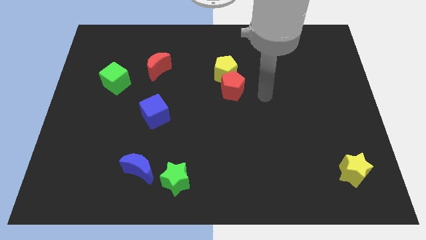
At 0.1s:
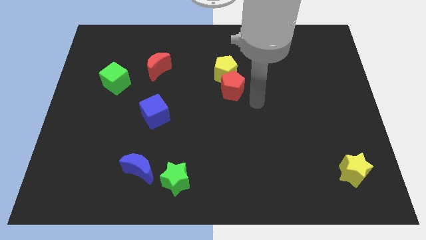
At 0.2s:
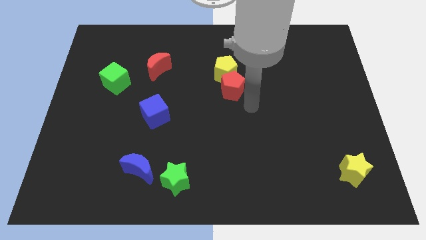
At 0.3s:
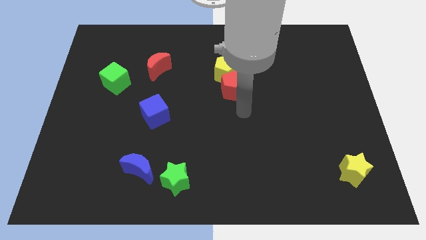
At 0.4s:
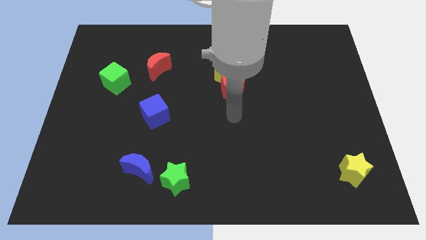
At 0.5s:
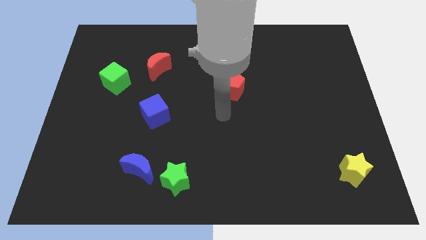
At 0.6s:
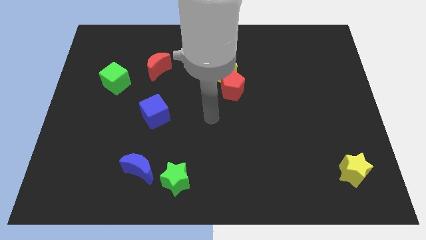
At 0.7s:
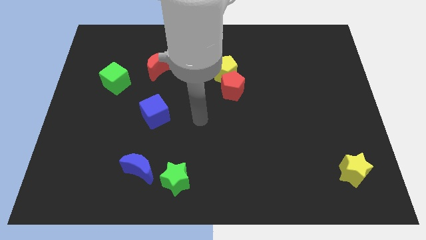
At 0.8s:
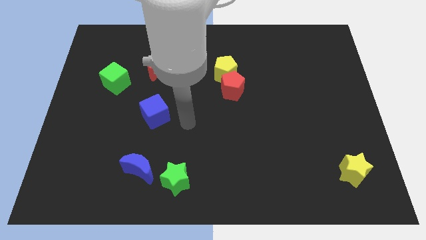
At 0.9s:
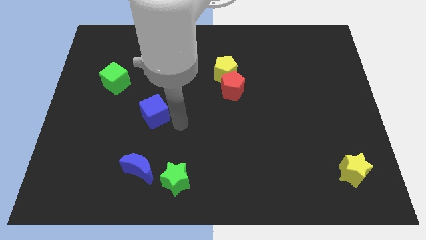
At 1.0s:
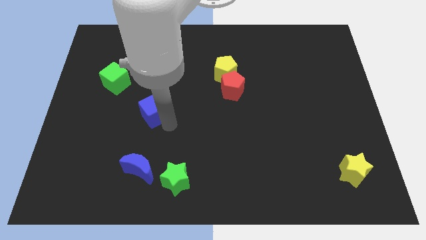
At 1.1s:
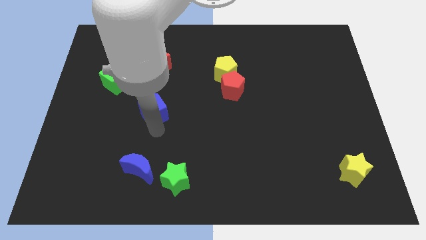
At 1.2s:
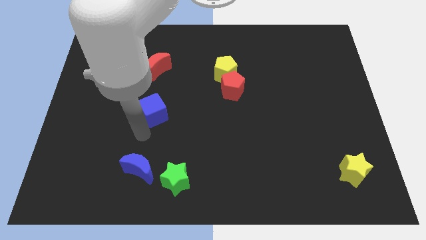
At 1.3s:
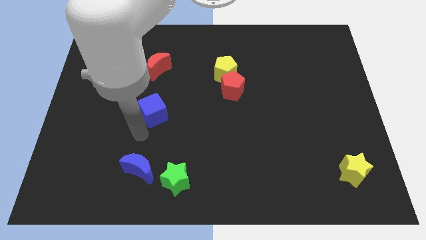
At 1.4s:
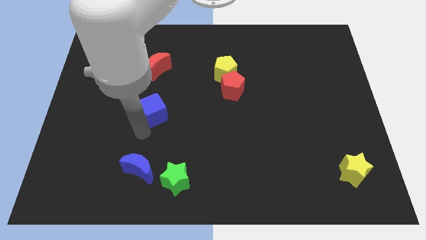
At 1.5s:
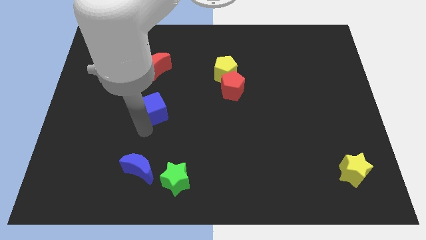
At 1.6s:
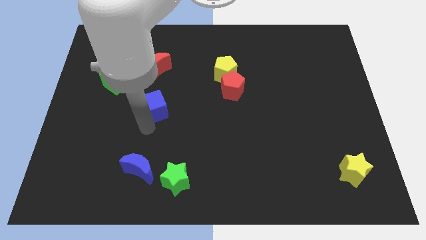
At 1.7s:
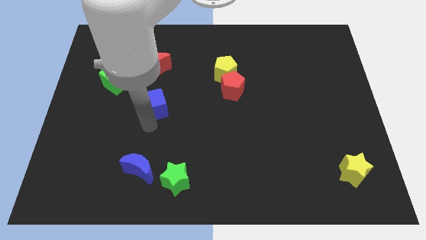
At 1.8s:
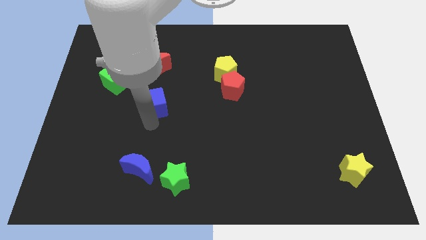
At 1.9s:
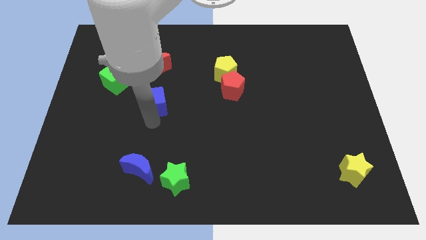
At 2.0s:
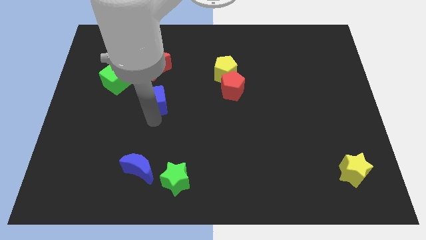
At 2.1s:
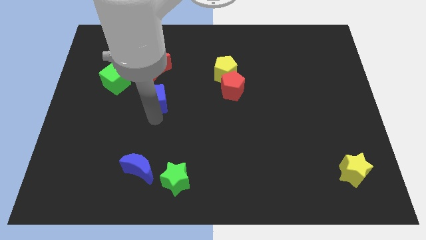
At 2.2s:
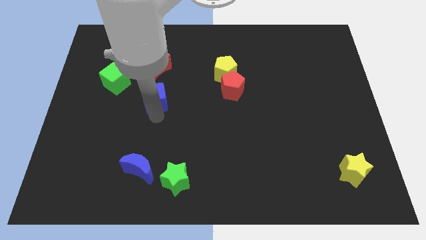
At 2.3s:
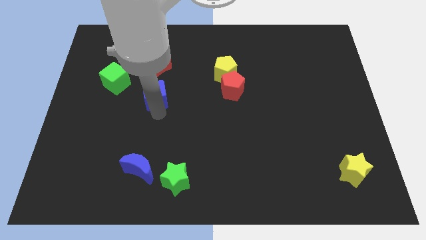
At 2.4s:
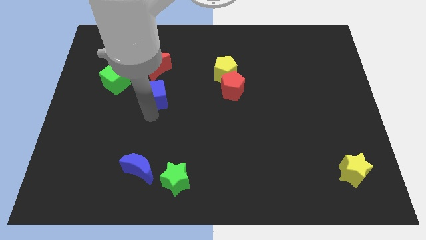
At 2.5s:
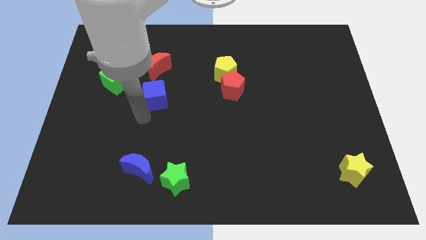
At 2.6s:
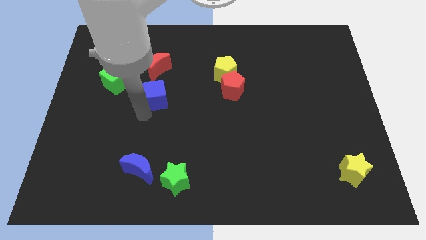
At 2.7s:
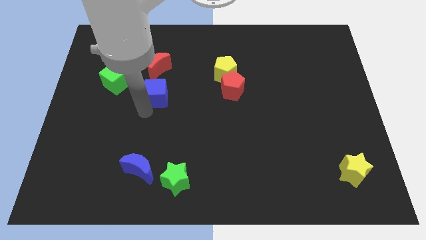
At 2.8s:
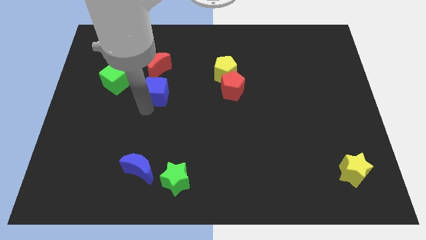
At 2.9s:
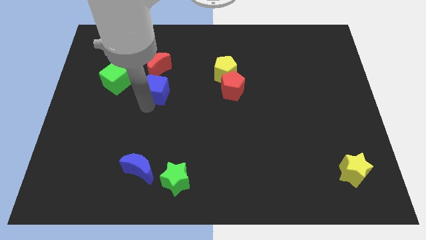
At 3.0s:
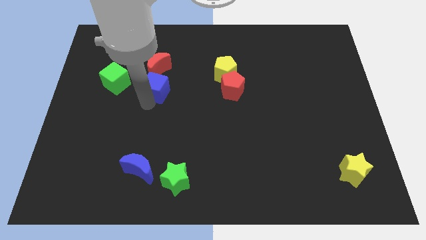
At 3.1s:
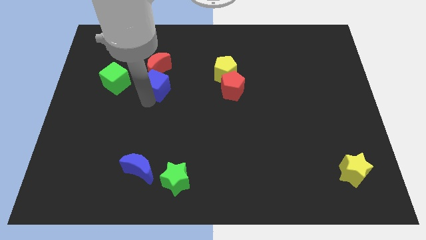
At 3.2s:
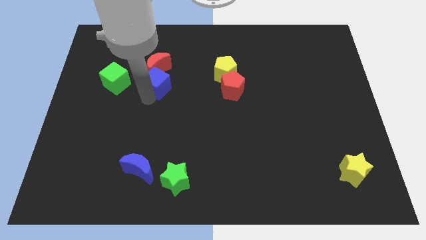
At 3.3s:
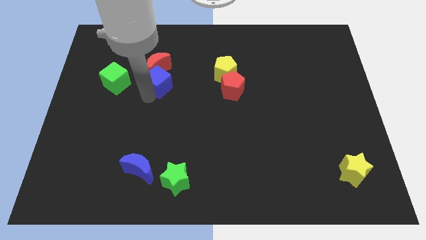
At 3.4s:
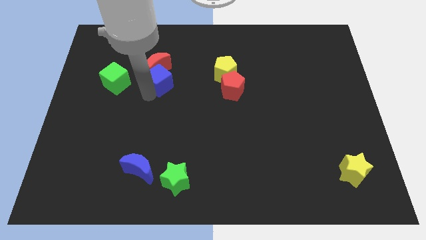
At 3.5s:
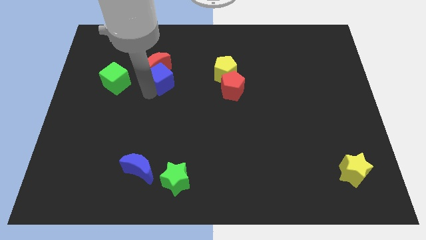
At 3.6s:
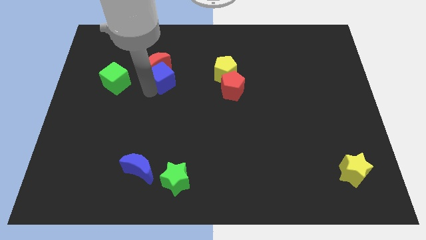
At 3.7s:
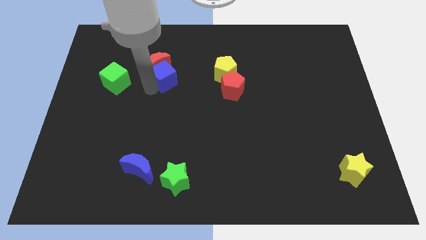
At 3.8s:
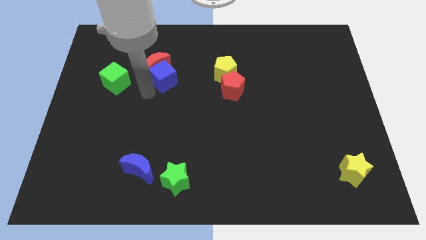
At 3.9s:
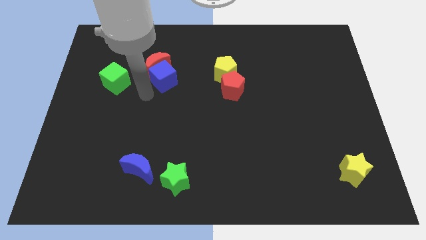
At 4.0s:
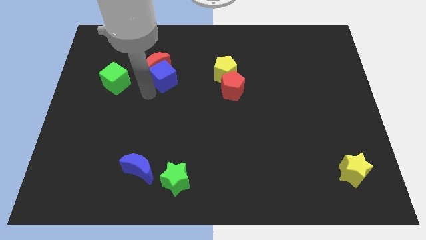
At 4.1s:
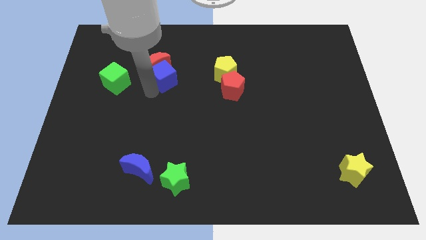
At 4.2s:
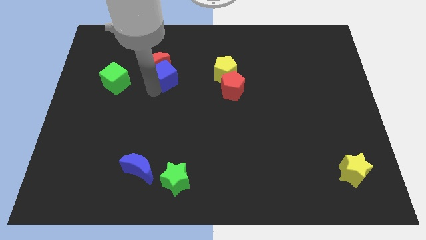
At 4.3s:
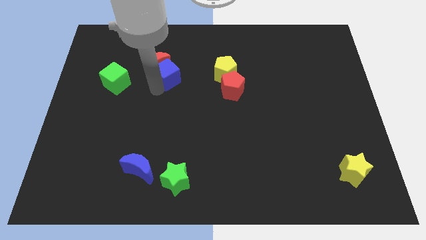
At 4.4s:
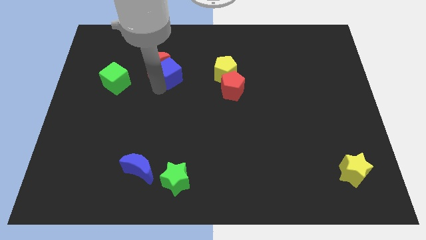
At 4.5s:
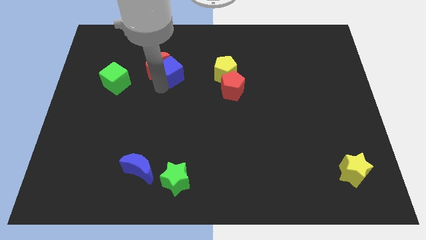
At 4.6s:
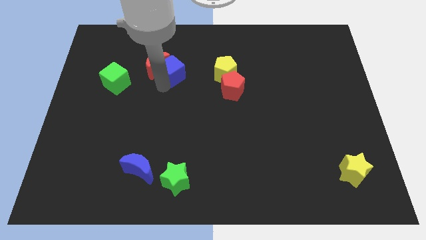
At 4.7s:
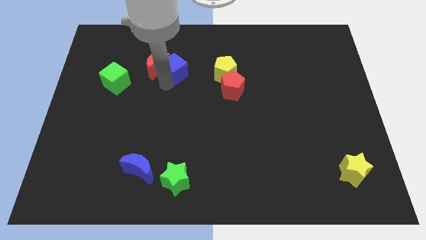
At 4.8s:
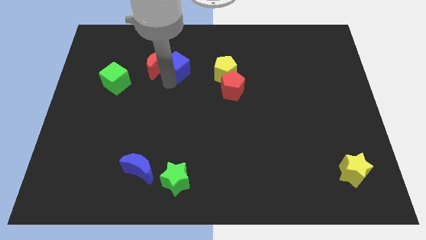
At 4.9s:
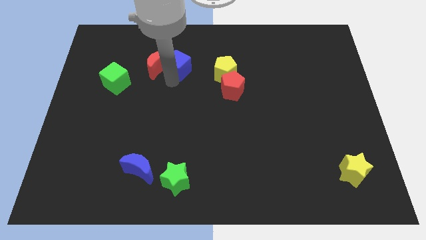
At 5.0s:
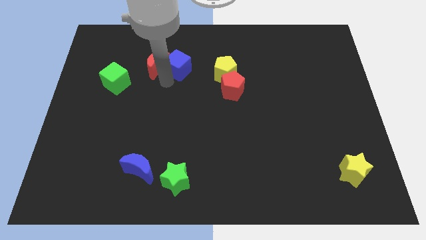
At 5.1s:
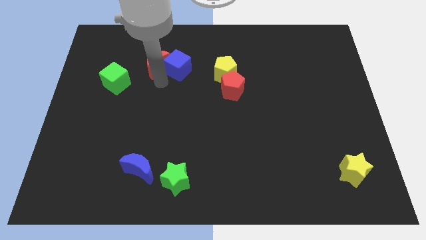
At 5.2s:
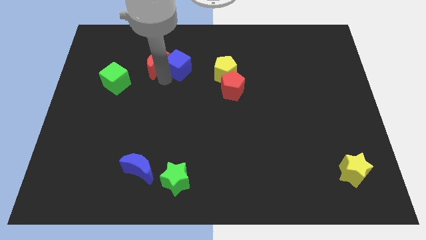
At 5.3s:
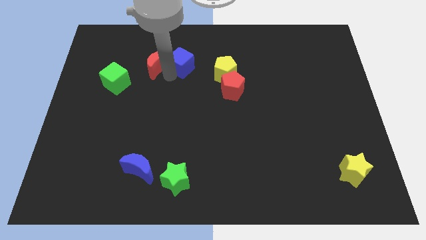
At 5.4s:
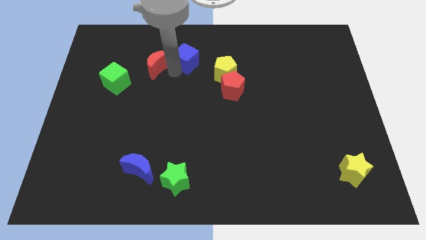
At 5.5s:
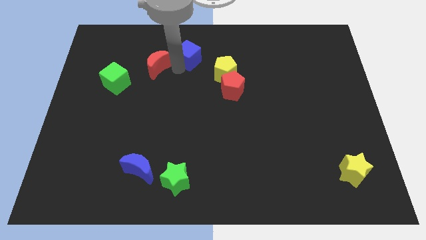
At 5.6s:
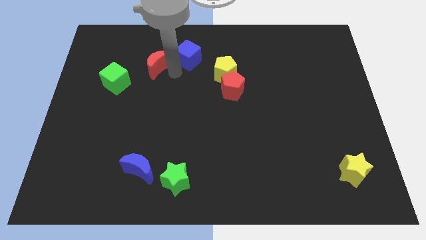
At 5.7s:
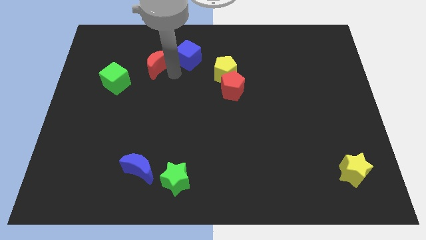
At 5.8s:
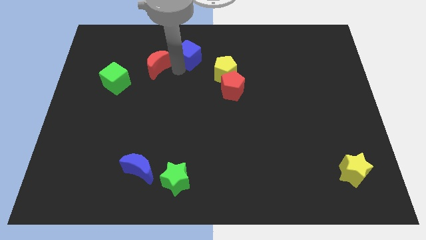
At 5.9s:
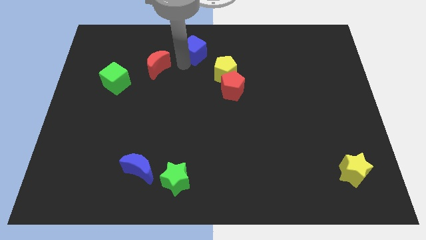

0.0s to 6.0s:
put the blue cube to the top

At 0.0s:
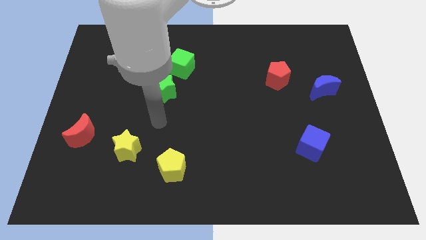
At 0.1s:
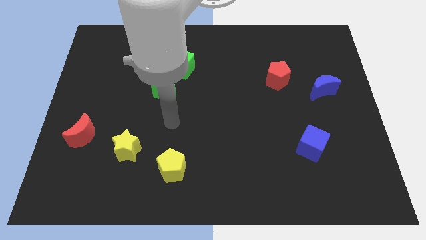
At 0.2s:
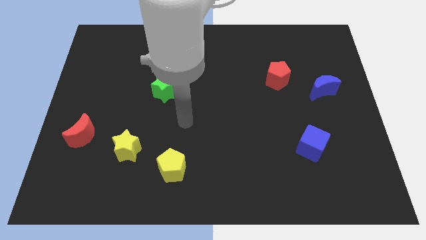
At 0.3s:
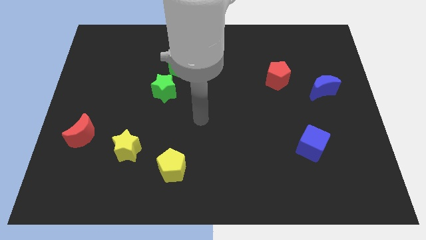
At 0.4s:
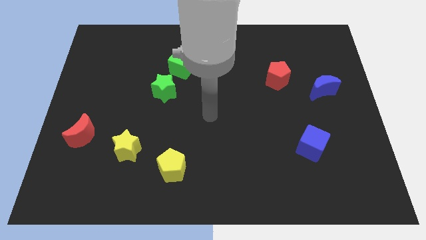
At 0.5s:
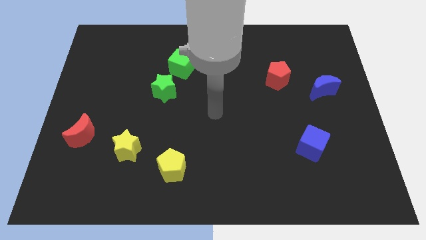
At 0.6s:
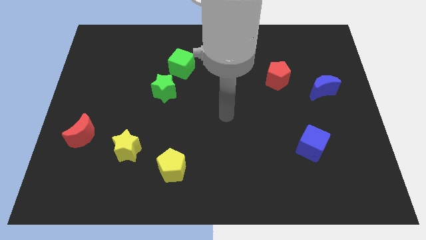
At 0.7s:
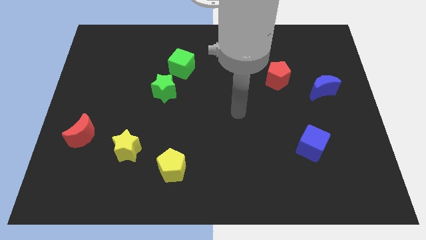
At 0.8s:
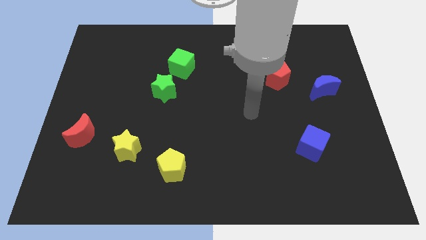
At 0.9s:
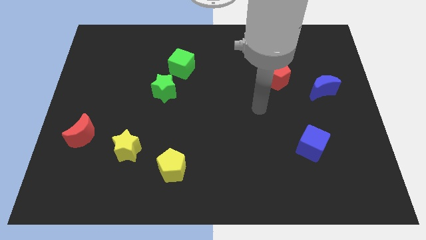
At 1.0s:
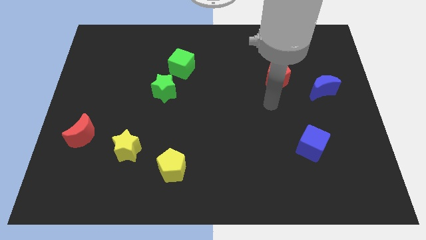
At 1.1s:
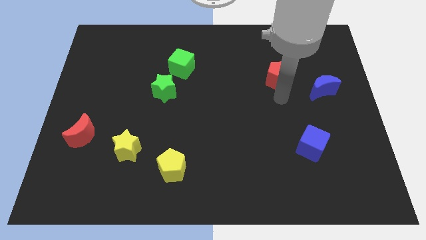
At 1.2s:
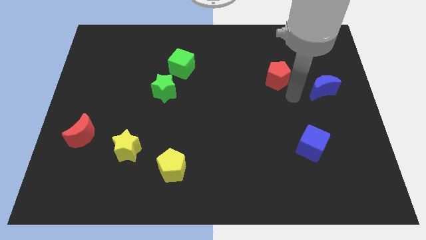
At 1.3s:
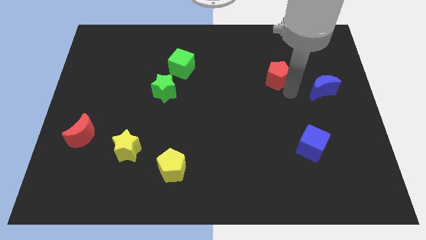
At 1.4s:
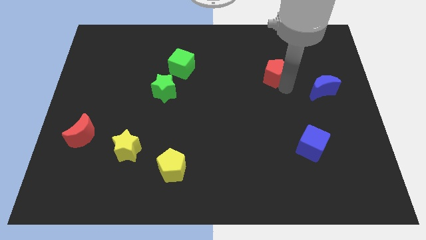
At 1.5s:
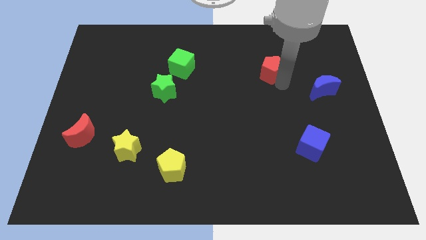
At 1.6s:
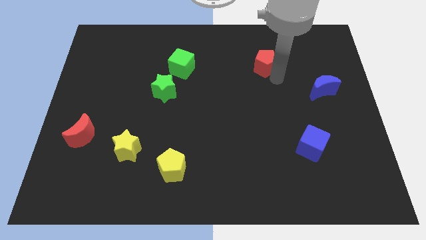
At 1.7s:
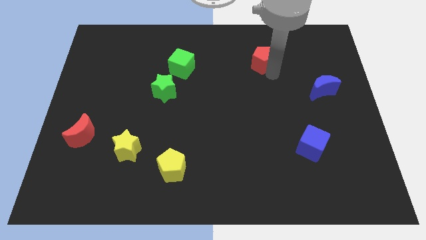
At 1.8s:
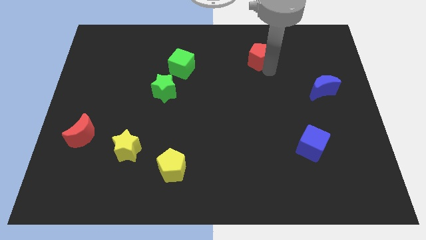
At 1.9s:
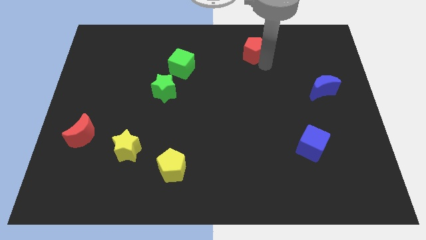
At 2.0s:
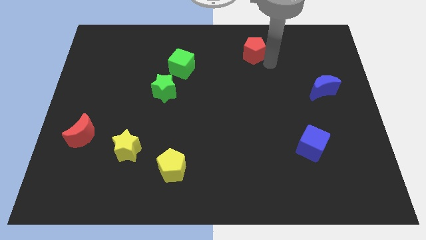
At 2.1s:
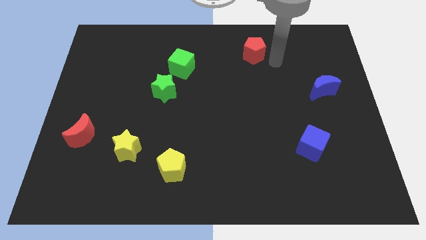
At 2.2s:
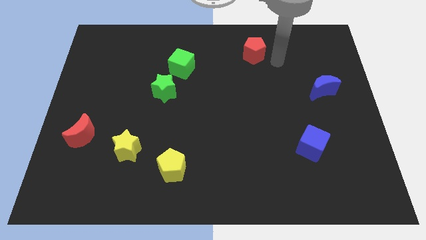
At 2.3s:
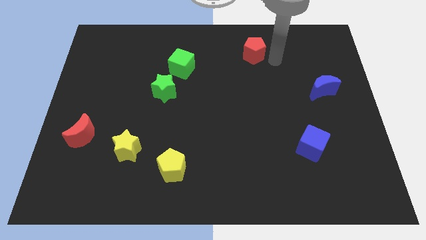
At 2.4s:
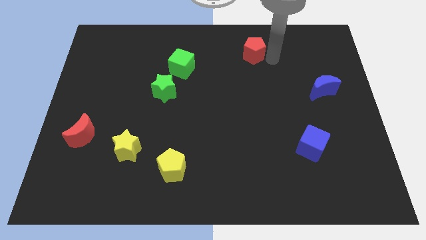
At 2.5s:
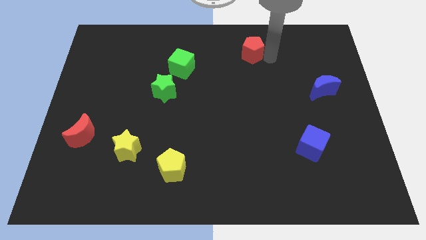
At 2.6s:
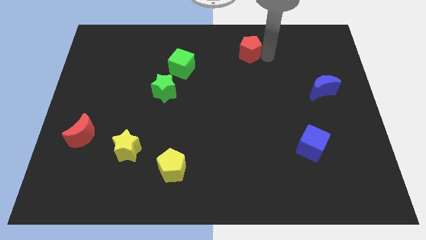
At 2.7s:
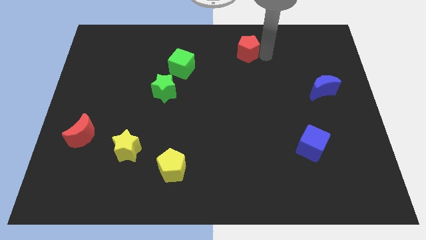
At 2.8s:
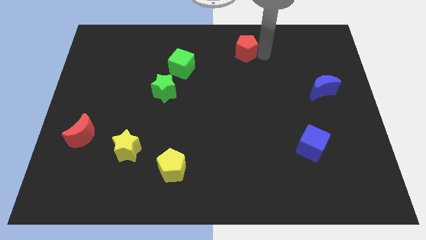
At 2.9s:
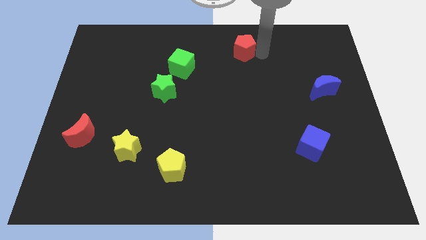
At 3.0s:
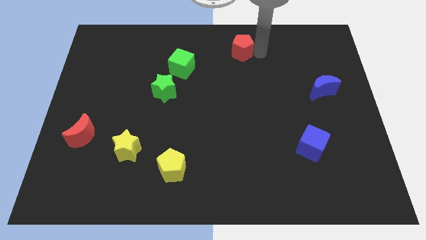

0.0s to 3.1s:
push the red pentagon to the top
